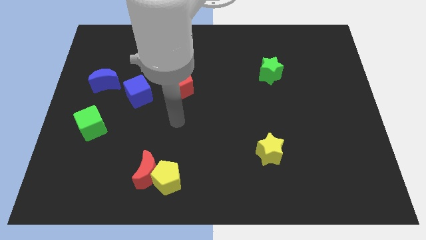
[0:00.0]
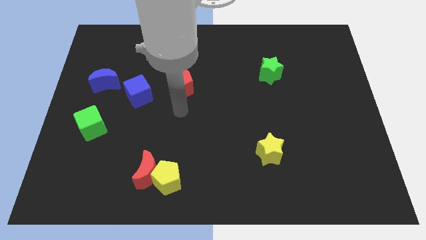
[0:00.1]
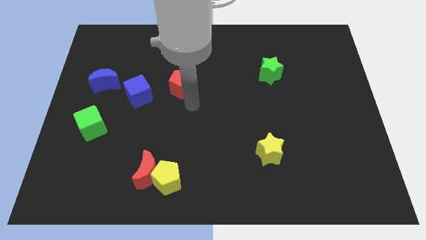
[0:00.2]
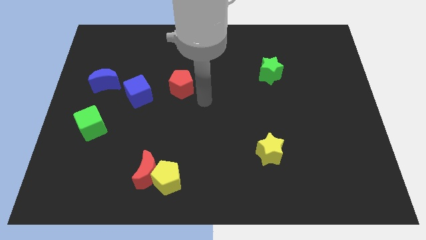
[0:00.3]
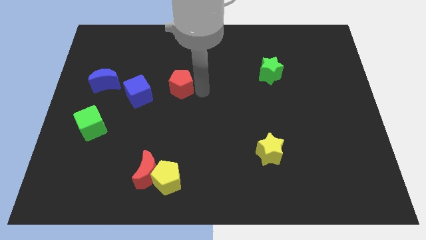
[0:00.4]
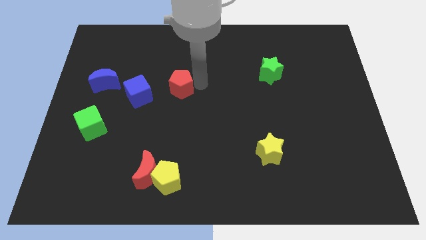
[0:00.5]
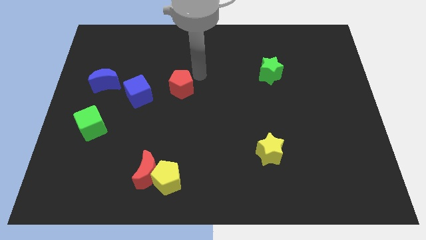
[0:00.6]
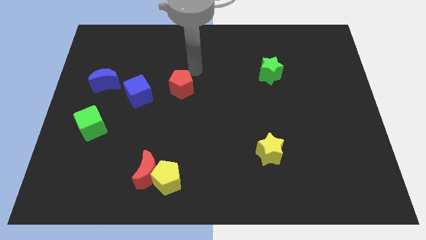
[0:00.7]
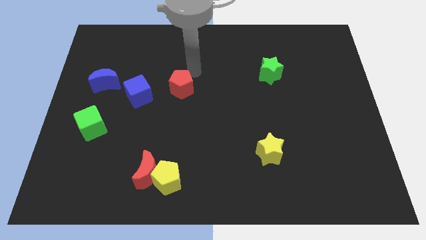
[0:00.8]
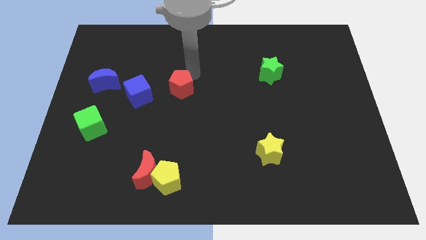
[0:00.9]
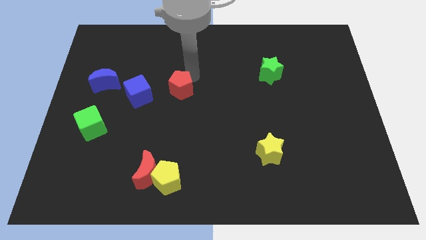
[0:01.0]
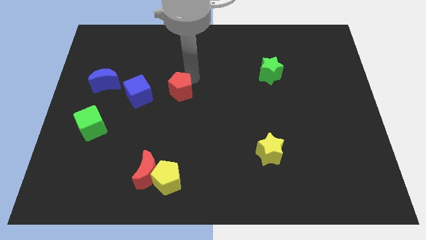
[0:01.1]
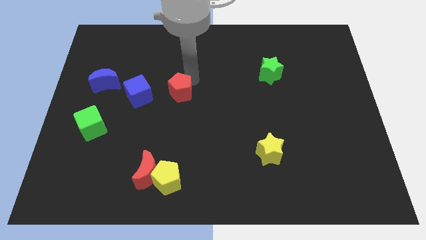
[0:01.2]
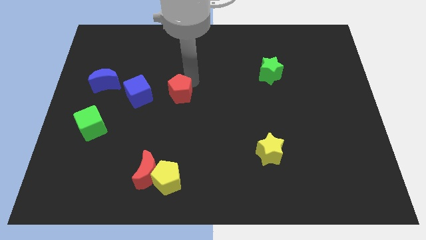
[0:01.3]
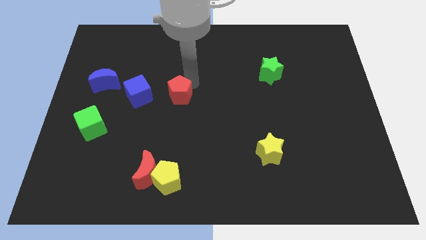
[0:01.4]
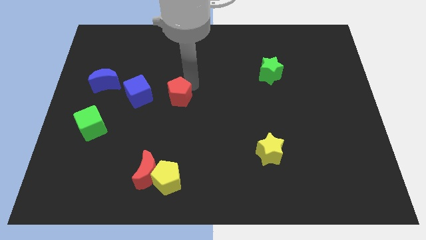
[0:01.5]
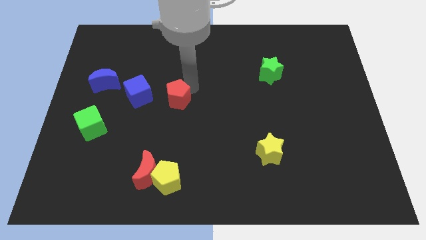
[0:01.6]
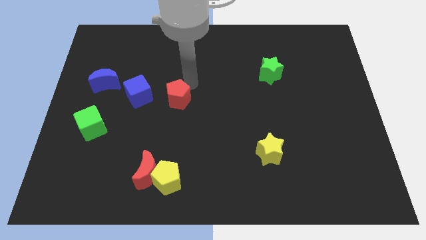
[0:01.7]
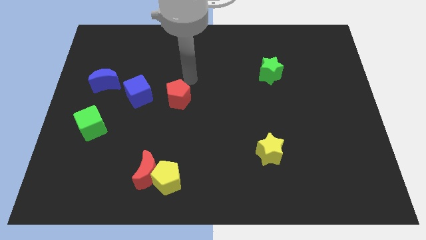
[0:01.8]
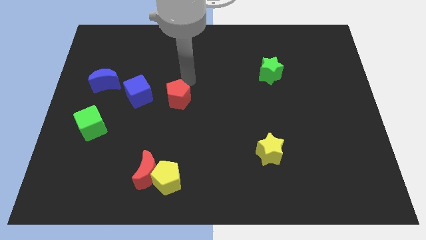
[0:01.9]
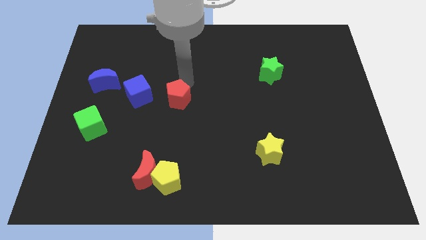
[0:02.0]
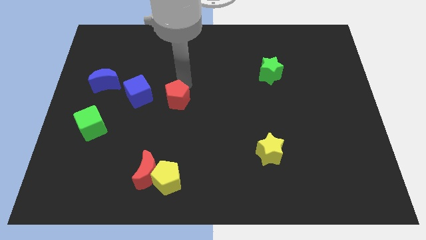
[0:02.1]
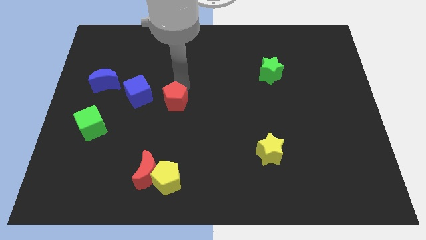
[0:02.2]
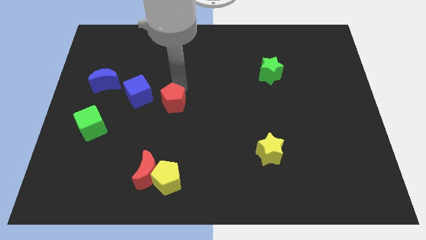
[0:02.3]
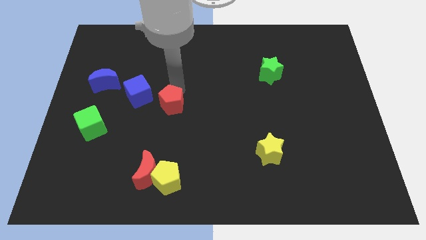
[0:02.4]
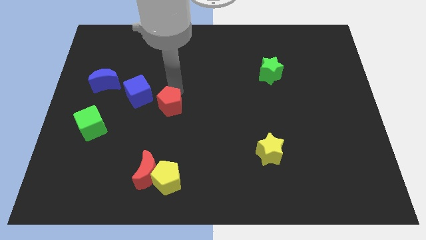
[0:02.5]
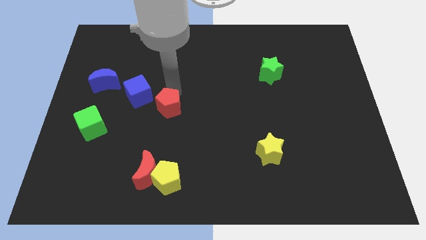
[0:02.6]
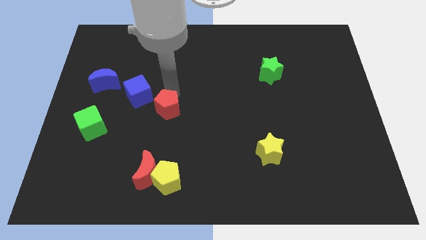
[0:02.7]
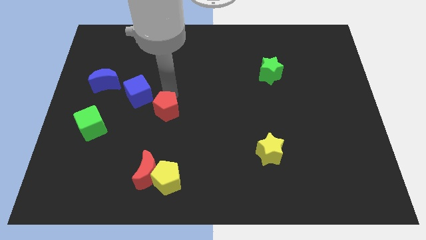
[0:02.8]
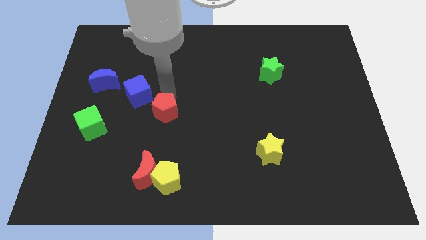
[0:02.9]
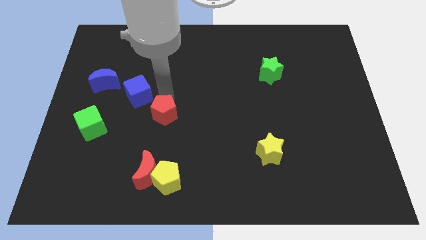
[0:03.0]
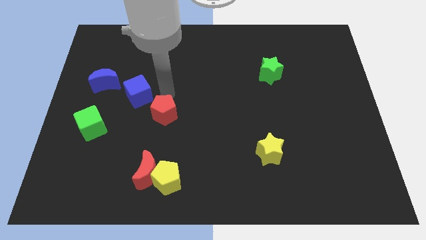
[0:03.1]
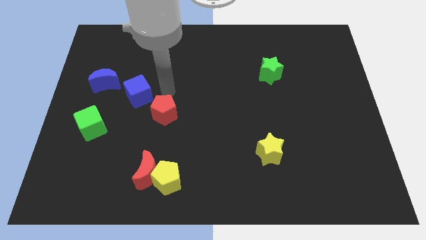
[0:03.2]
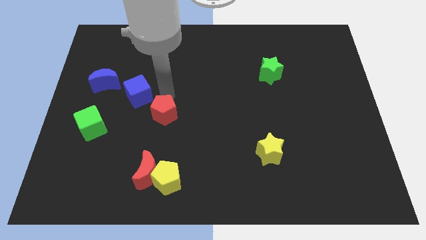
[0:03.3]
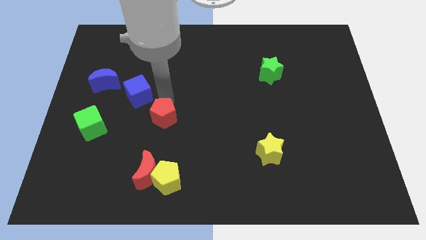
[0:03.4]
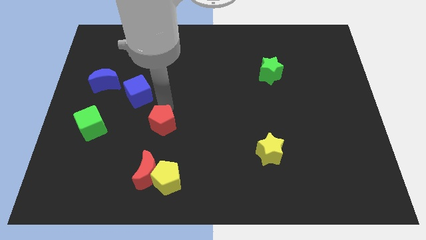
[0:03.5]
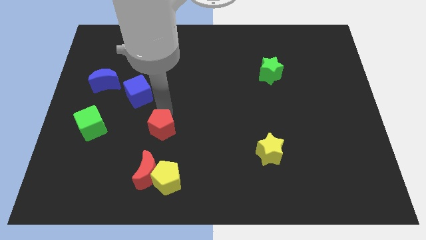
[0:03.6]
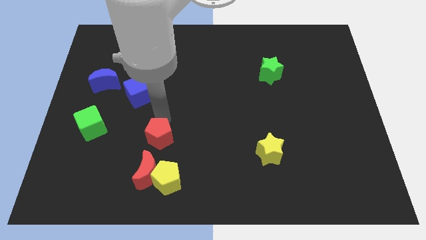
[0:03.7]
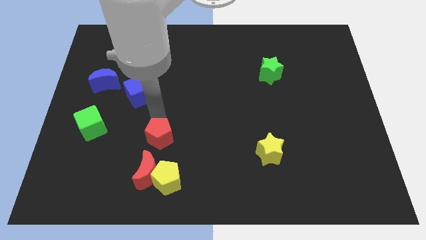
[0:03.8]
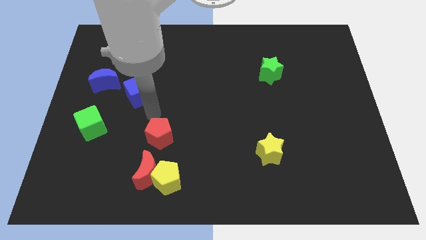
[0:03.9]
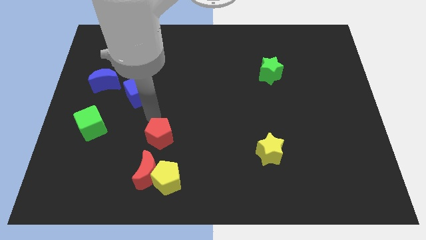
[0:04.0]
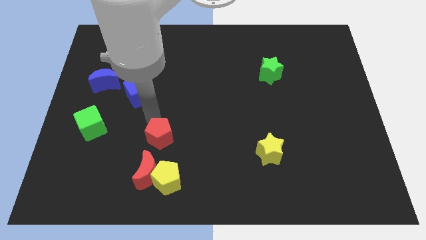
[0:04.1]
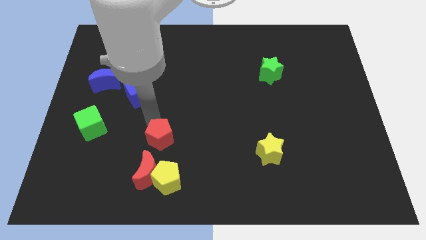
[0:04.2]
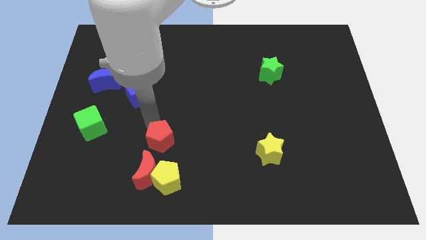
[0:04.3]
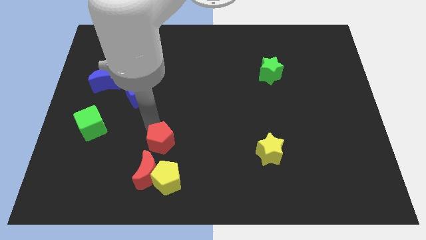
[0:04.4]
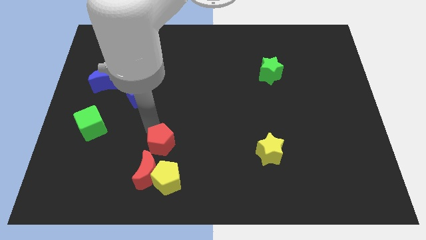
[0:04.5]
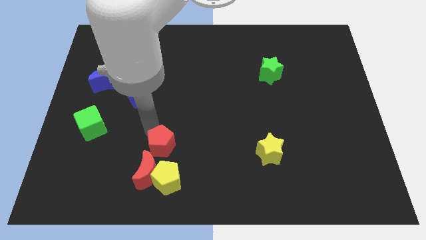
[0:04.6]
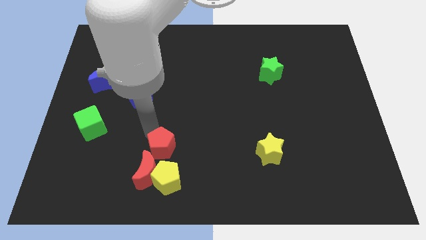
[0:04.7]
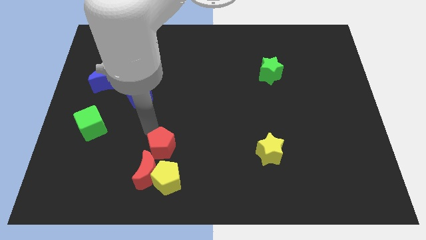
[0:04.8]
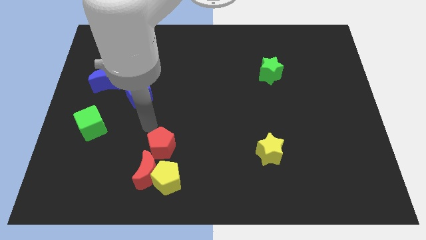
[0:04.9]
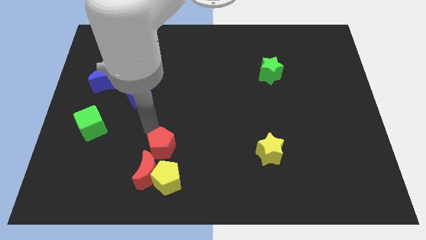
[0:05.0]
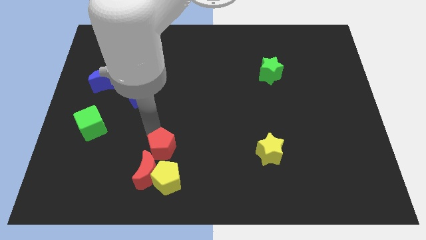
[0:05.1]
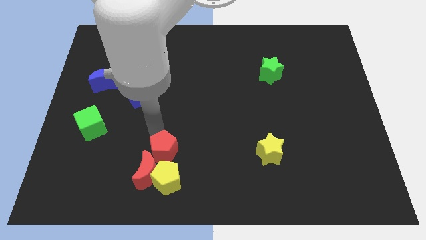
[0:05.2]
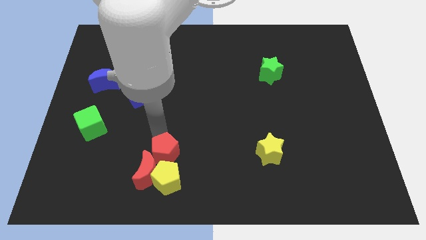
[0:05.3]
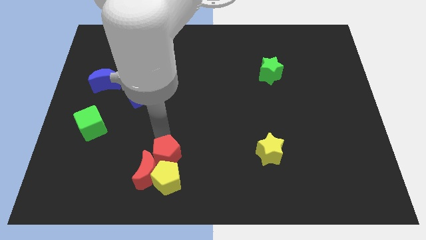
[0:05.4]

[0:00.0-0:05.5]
slide the red pentagon next to the yellow pentagon

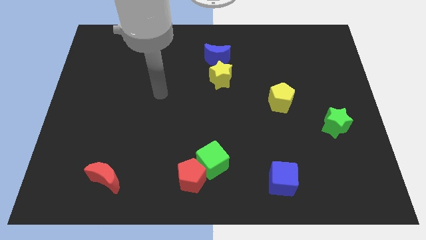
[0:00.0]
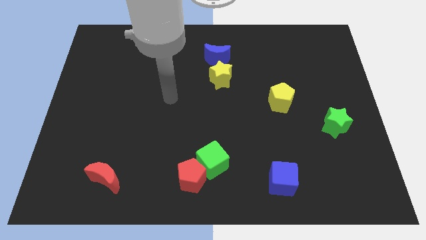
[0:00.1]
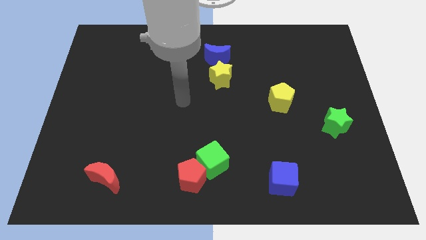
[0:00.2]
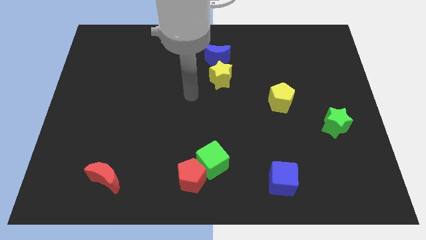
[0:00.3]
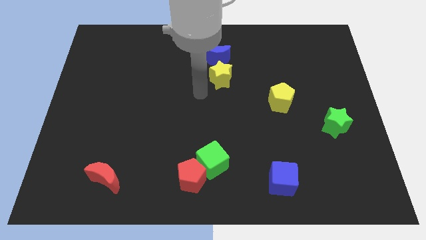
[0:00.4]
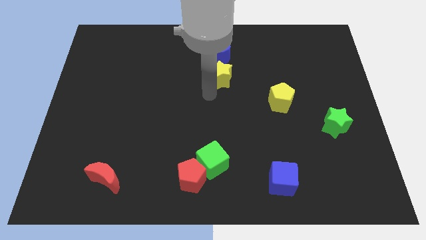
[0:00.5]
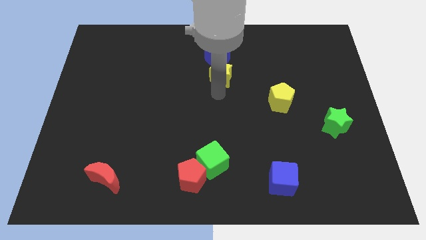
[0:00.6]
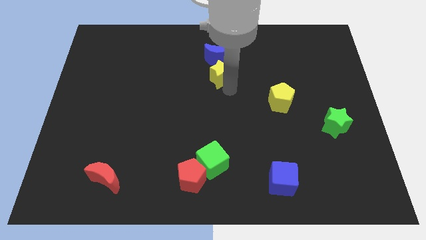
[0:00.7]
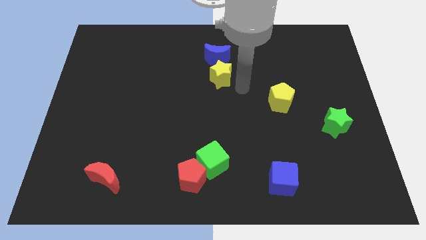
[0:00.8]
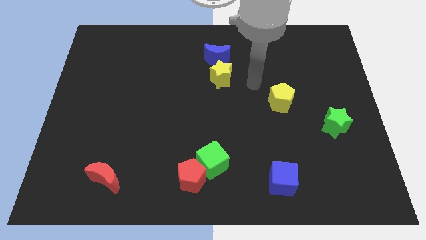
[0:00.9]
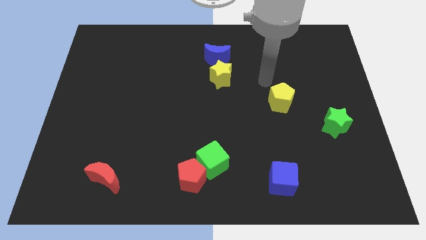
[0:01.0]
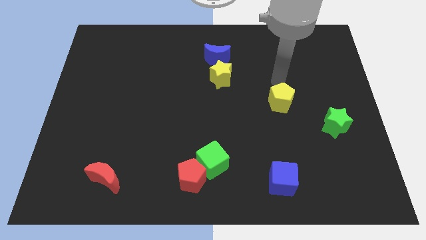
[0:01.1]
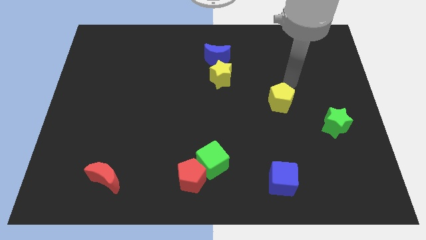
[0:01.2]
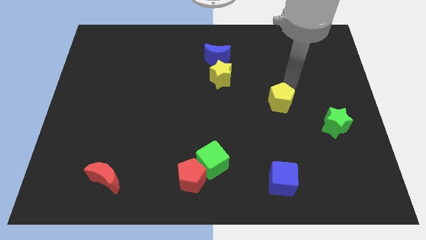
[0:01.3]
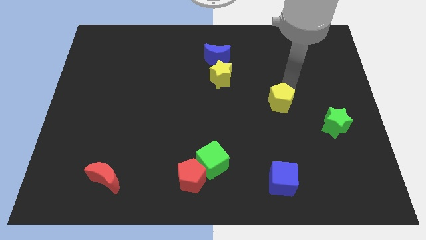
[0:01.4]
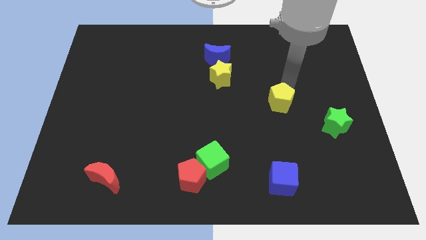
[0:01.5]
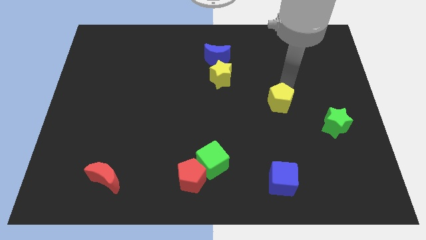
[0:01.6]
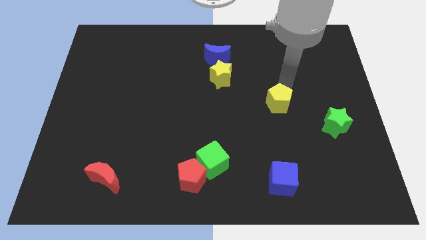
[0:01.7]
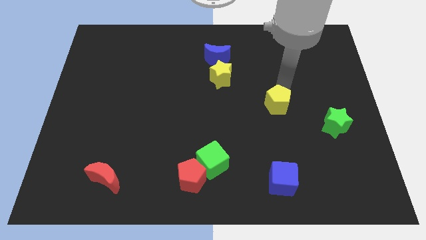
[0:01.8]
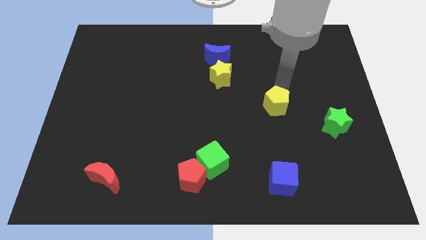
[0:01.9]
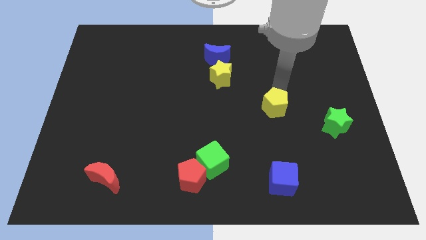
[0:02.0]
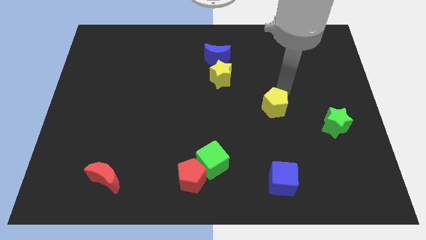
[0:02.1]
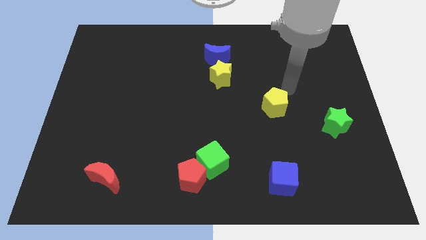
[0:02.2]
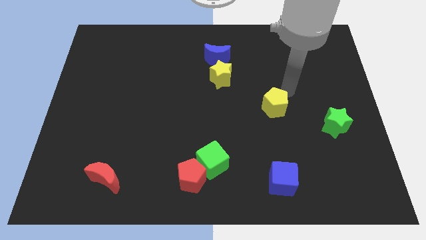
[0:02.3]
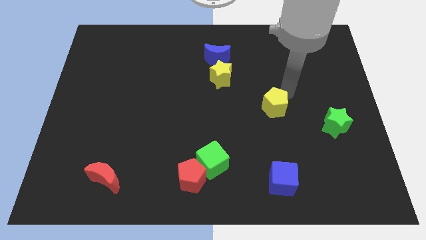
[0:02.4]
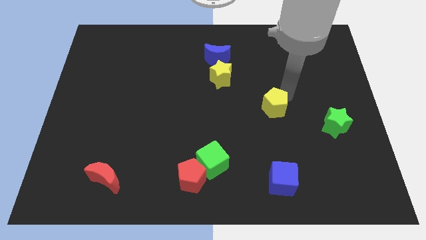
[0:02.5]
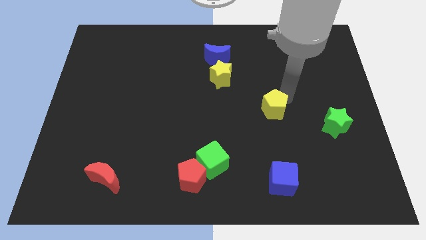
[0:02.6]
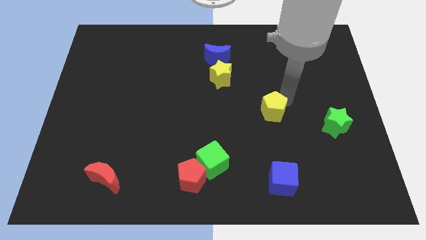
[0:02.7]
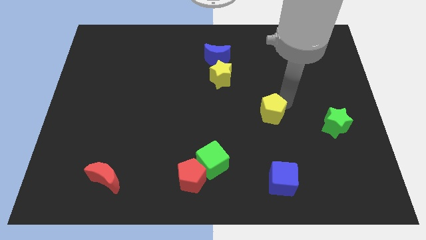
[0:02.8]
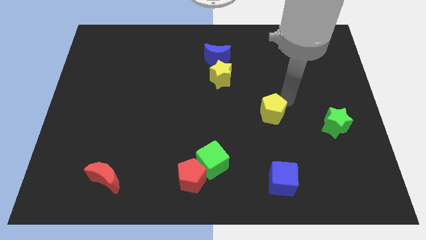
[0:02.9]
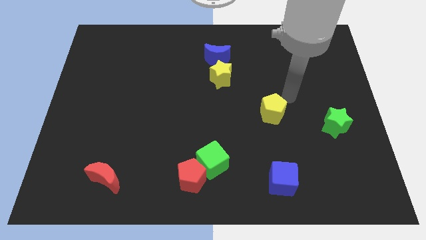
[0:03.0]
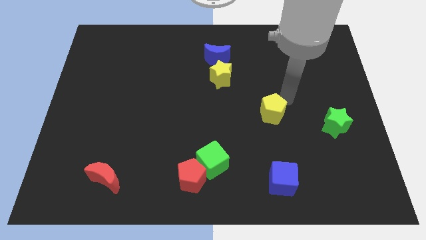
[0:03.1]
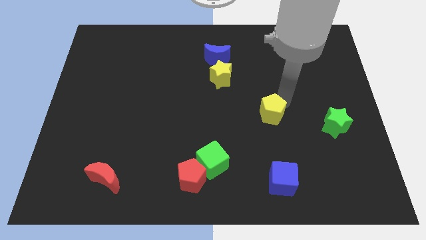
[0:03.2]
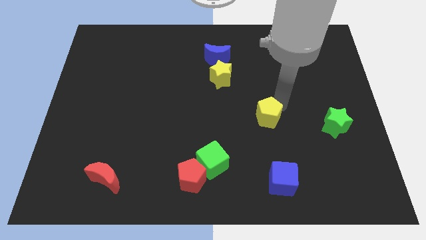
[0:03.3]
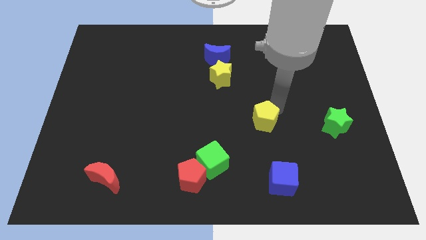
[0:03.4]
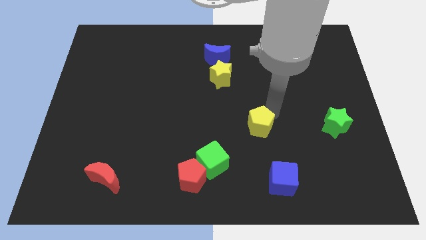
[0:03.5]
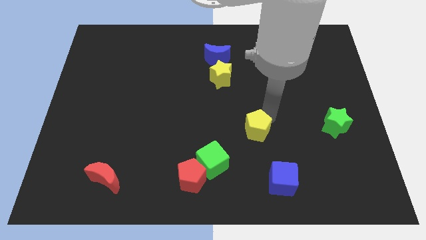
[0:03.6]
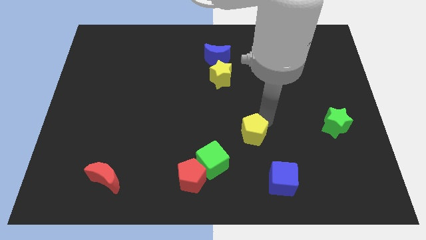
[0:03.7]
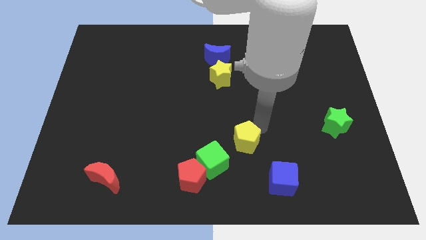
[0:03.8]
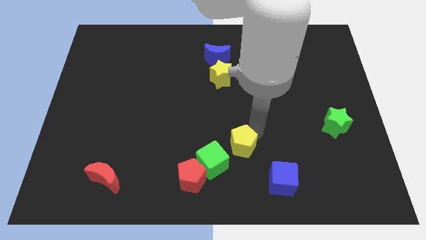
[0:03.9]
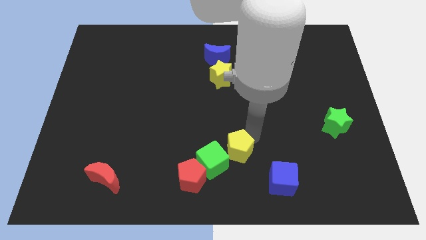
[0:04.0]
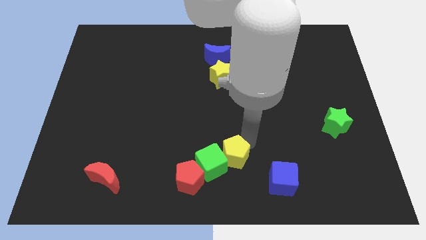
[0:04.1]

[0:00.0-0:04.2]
slide the yellow pentagon next to the green cube
